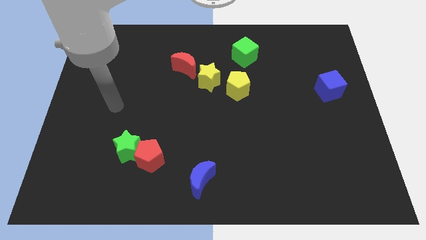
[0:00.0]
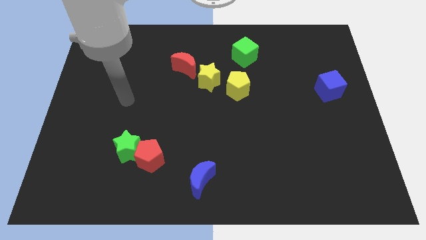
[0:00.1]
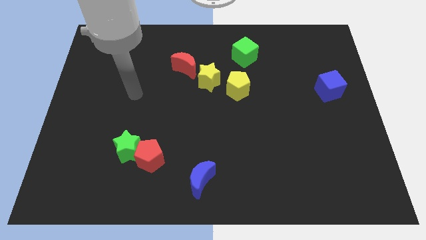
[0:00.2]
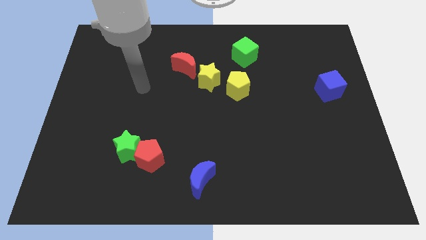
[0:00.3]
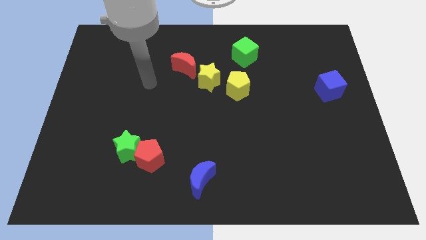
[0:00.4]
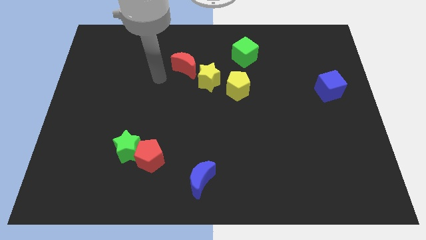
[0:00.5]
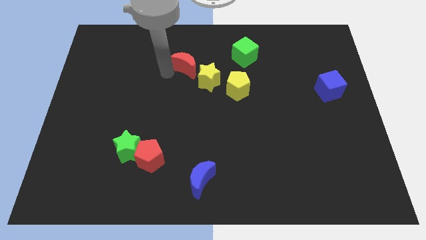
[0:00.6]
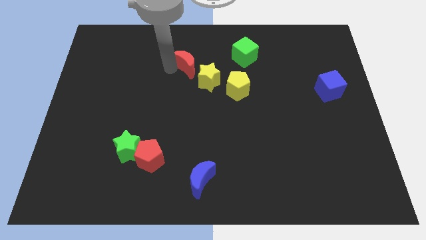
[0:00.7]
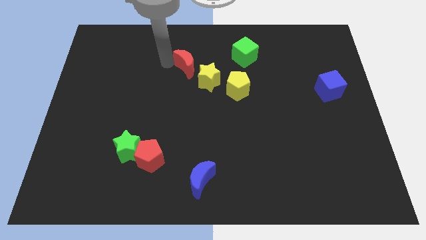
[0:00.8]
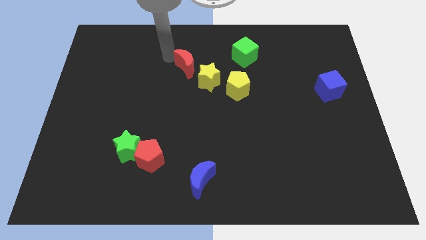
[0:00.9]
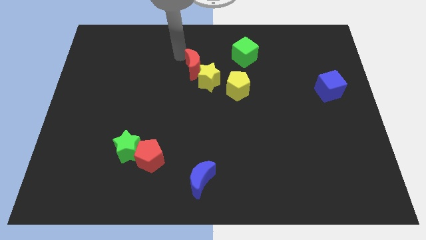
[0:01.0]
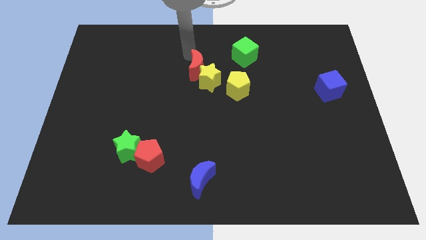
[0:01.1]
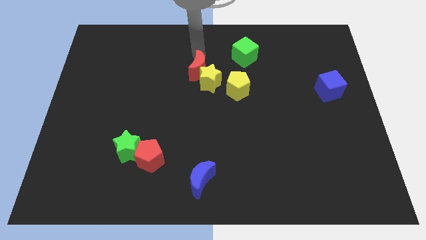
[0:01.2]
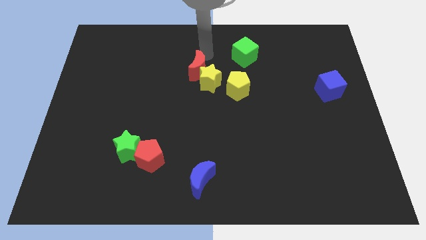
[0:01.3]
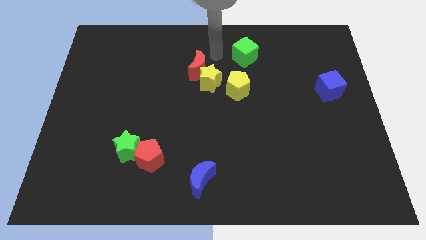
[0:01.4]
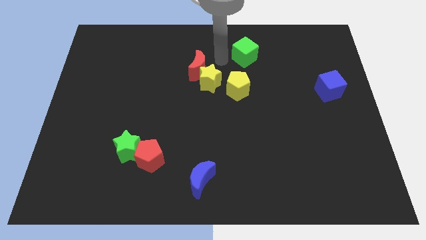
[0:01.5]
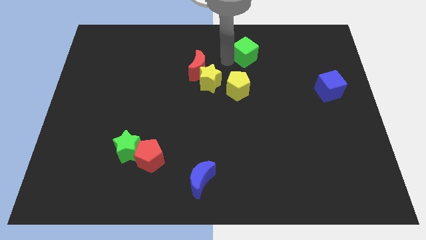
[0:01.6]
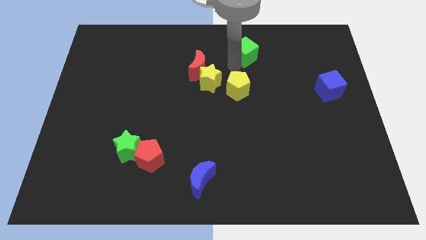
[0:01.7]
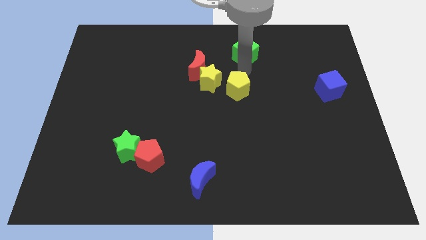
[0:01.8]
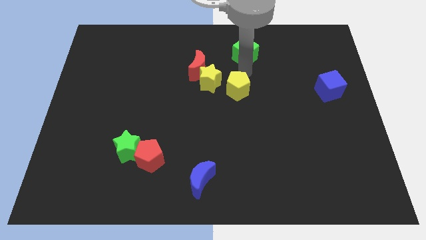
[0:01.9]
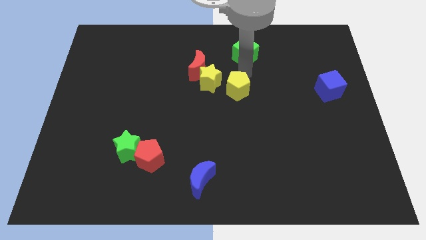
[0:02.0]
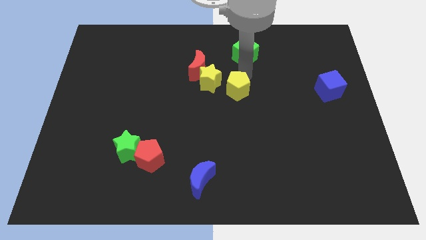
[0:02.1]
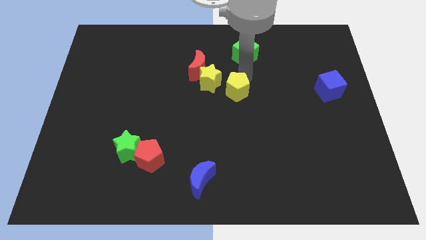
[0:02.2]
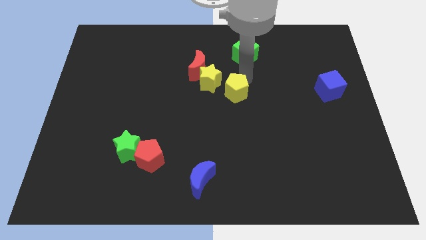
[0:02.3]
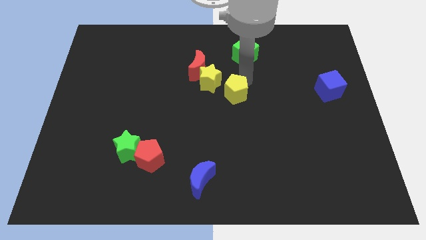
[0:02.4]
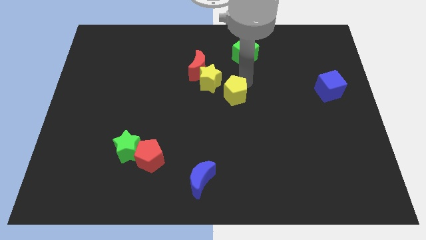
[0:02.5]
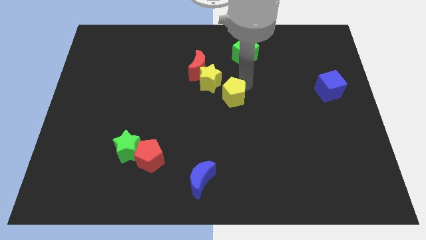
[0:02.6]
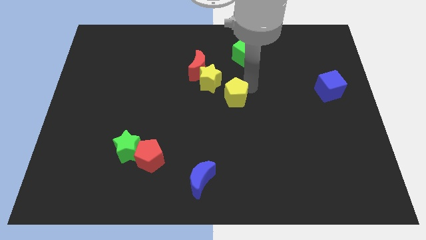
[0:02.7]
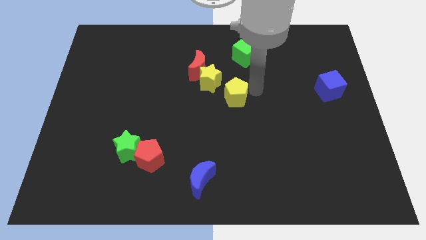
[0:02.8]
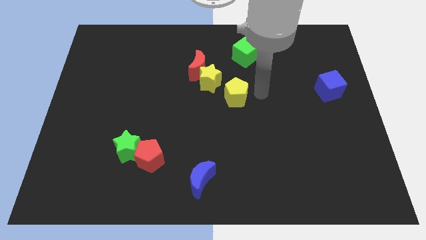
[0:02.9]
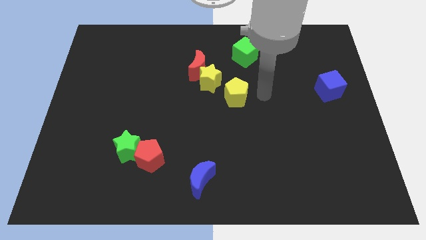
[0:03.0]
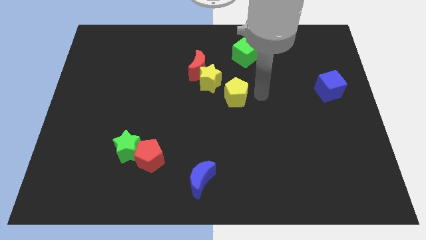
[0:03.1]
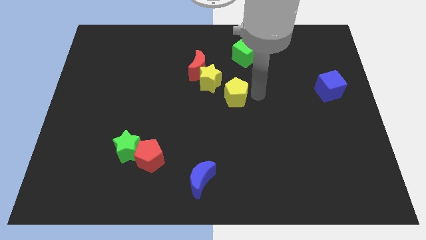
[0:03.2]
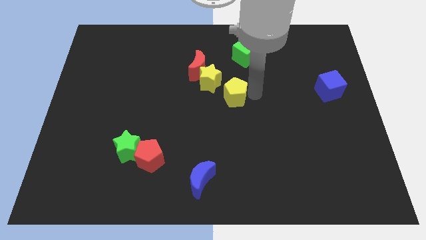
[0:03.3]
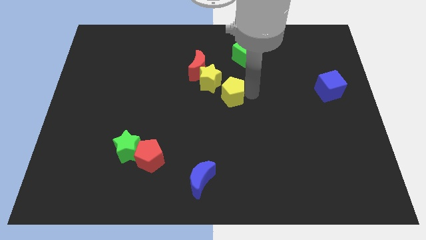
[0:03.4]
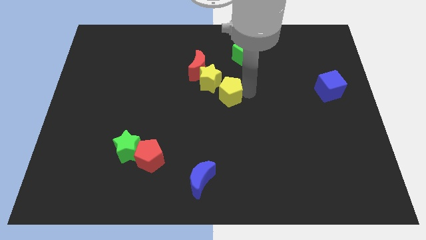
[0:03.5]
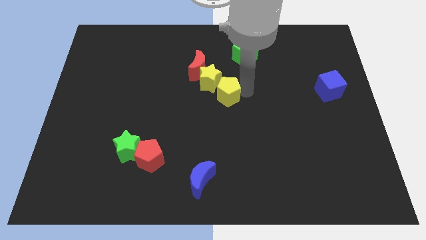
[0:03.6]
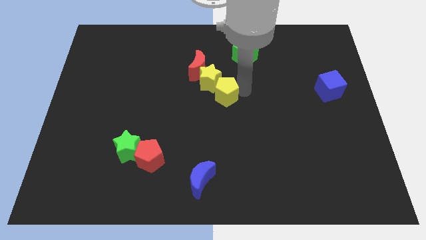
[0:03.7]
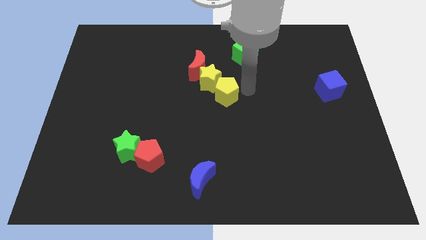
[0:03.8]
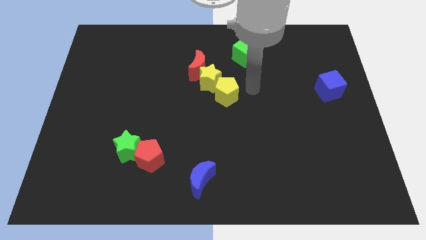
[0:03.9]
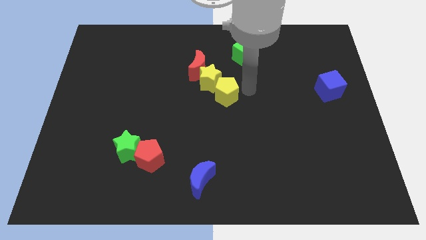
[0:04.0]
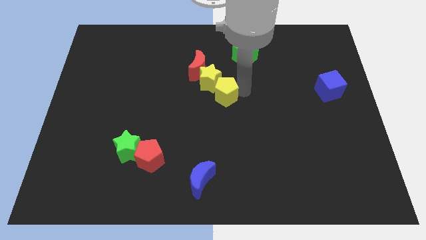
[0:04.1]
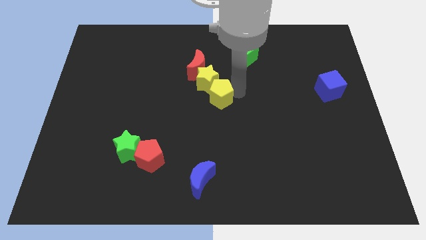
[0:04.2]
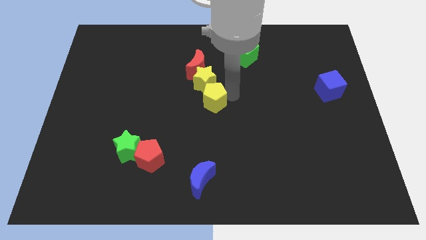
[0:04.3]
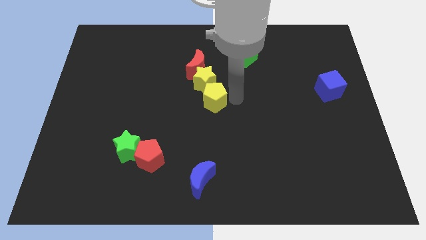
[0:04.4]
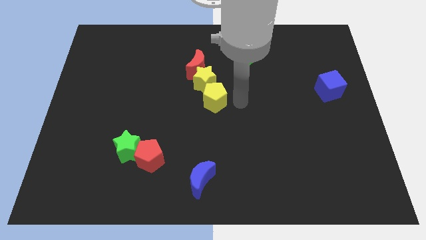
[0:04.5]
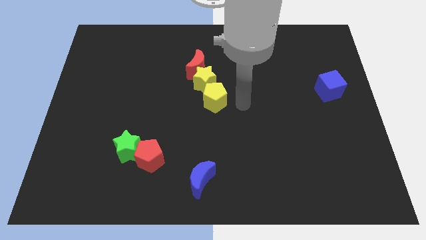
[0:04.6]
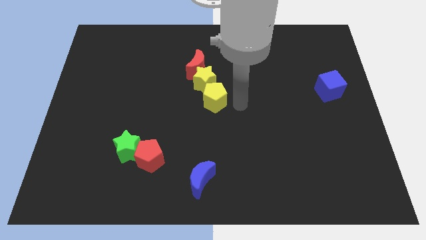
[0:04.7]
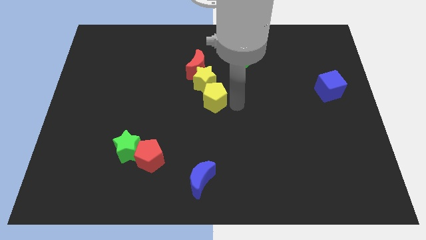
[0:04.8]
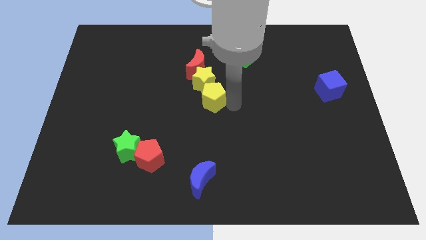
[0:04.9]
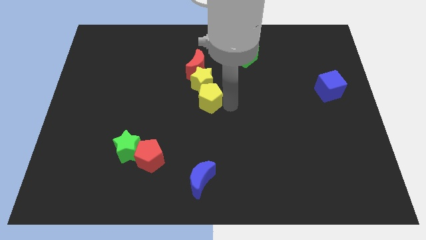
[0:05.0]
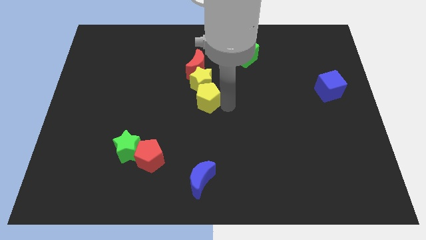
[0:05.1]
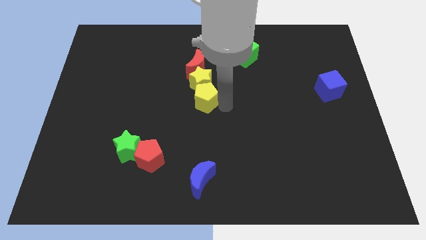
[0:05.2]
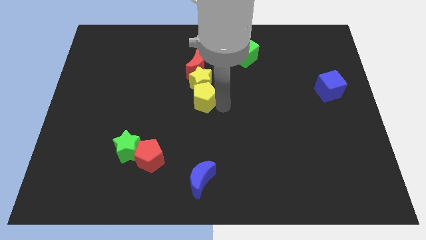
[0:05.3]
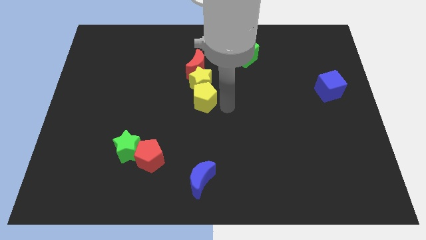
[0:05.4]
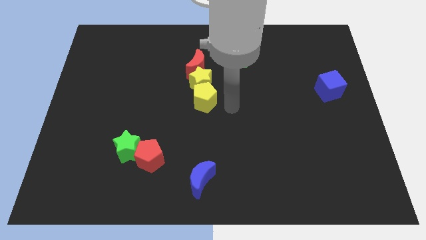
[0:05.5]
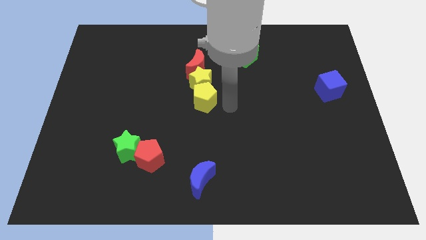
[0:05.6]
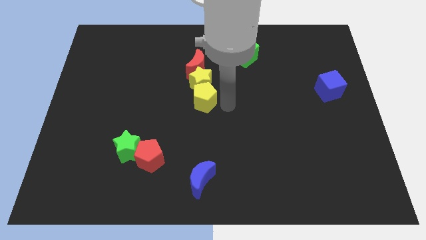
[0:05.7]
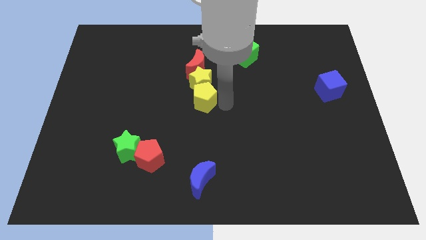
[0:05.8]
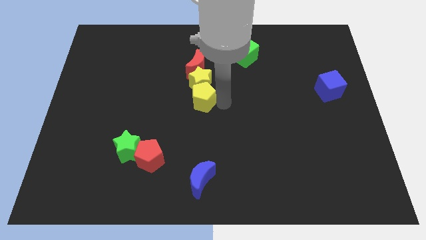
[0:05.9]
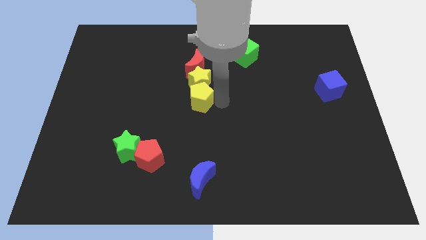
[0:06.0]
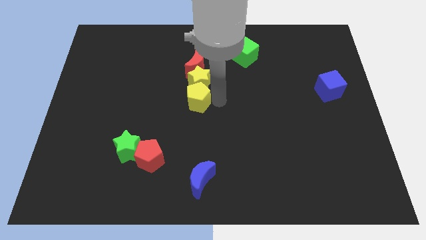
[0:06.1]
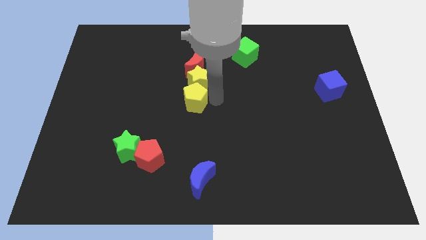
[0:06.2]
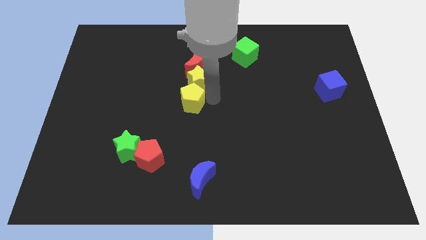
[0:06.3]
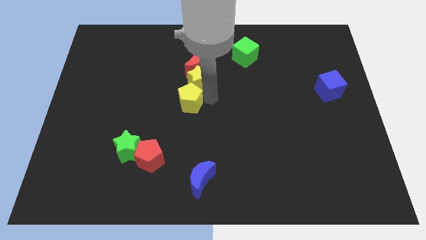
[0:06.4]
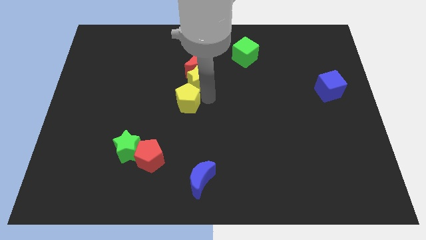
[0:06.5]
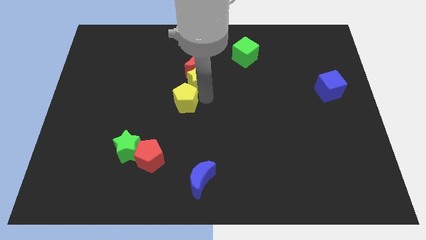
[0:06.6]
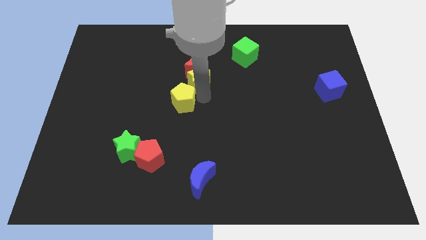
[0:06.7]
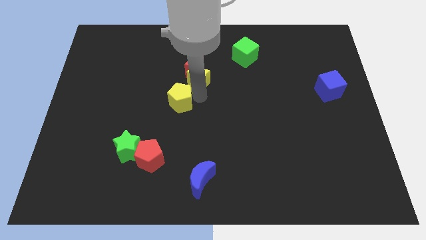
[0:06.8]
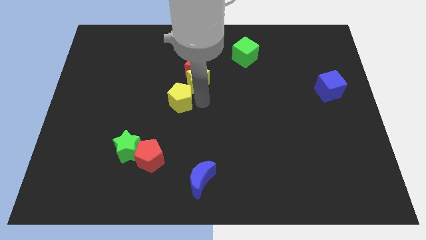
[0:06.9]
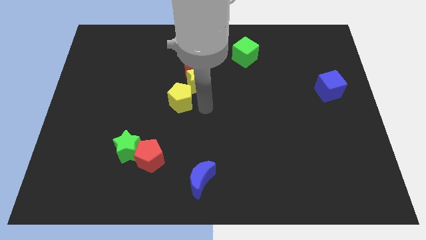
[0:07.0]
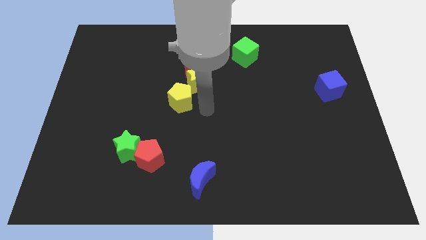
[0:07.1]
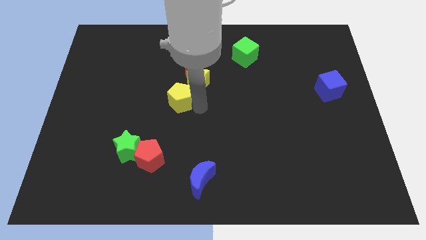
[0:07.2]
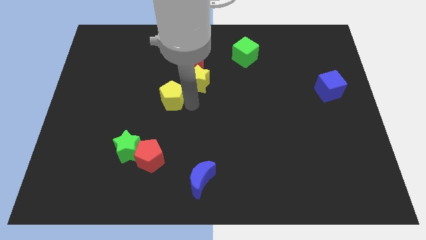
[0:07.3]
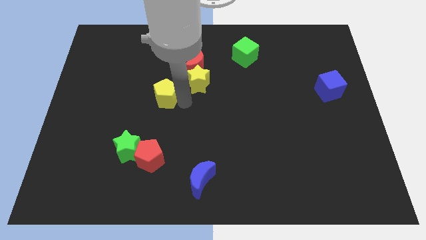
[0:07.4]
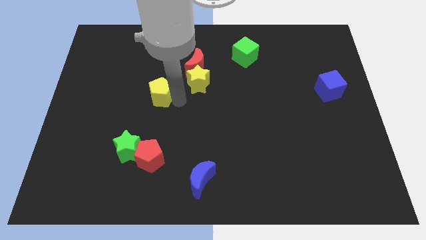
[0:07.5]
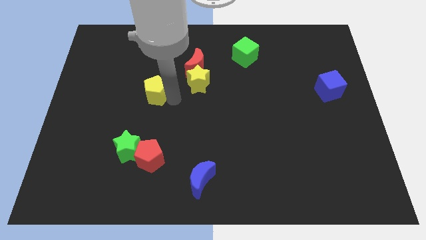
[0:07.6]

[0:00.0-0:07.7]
push the yellow pentagon left

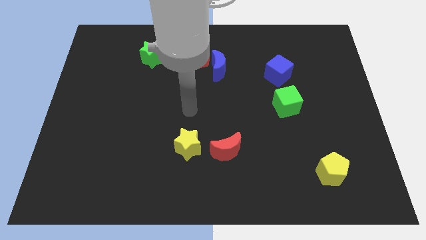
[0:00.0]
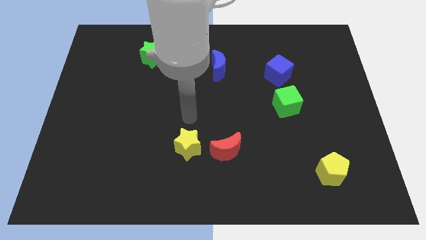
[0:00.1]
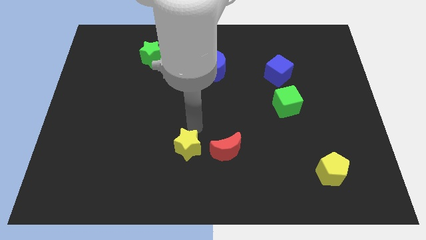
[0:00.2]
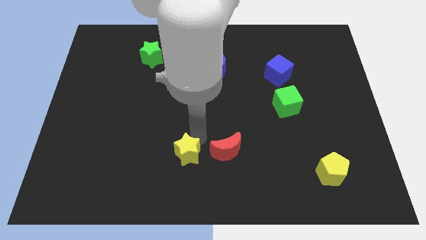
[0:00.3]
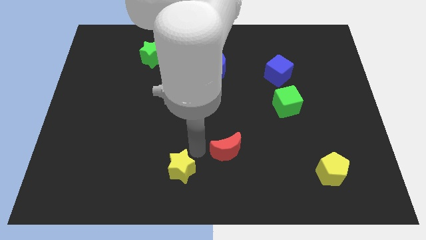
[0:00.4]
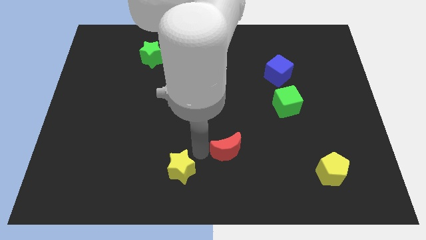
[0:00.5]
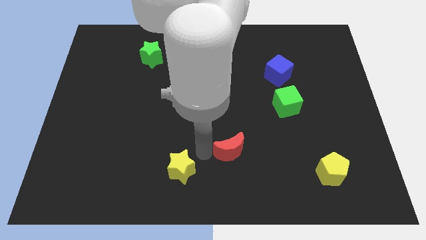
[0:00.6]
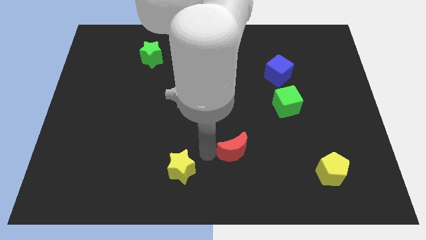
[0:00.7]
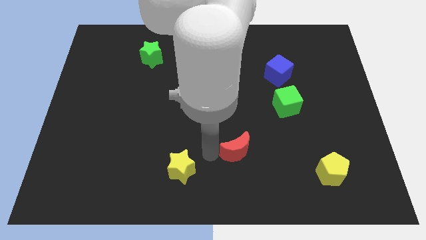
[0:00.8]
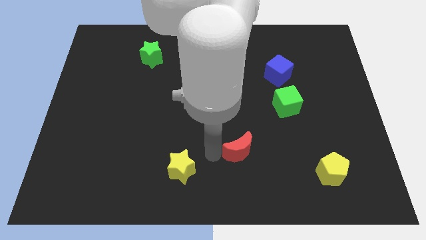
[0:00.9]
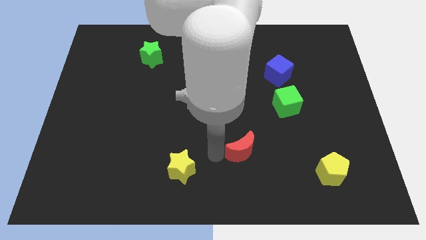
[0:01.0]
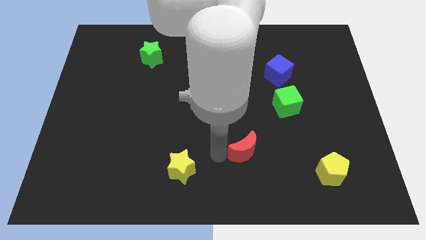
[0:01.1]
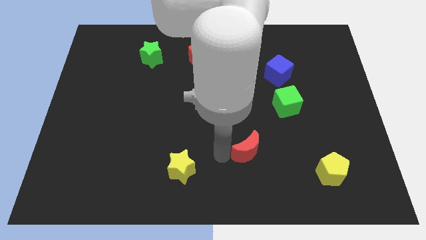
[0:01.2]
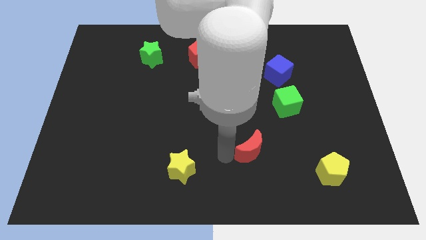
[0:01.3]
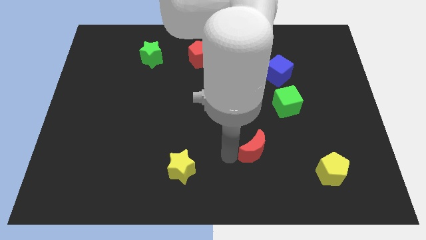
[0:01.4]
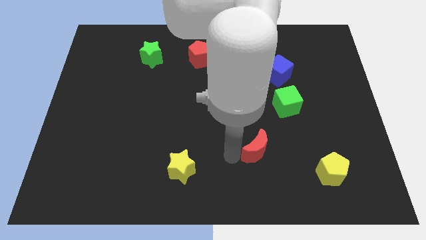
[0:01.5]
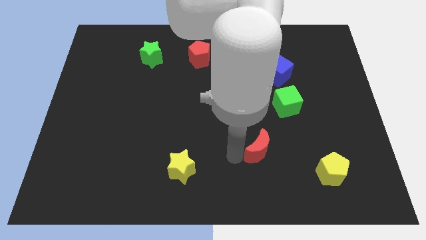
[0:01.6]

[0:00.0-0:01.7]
slightly move the red moon to the right
